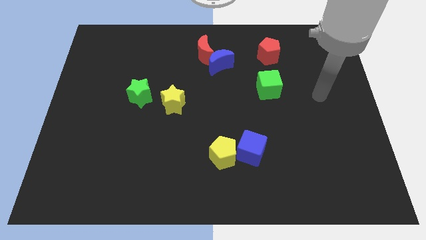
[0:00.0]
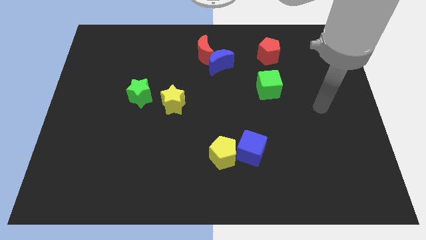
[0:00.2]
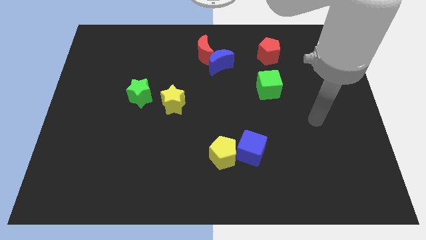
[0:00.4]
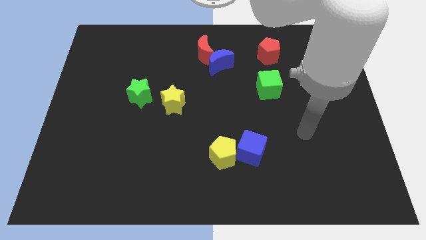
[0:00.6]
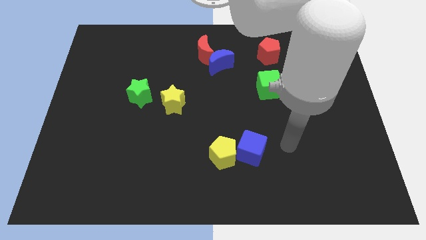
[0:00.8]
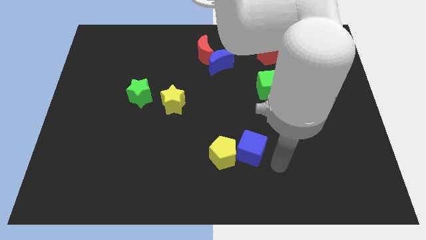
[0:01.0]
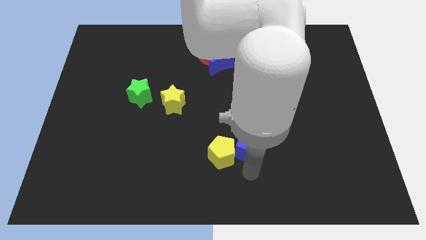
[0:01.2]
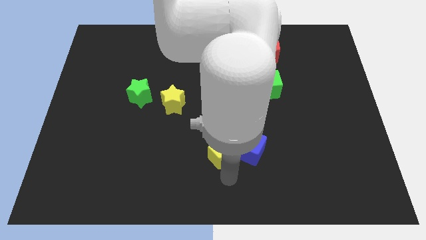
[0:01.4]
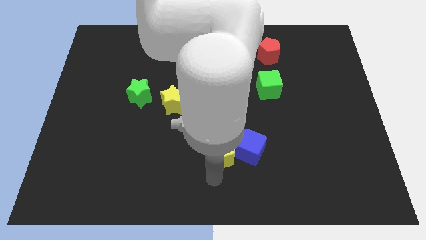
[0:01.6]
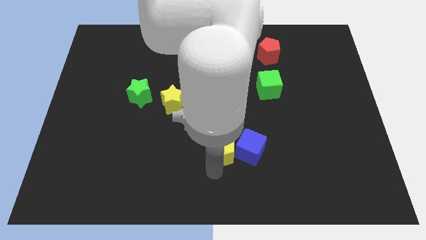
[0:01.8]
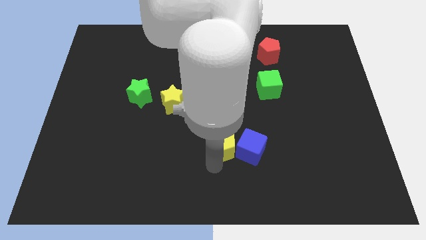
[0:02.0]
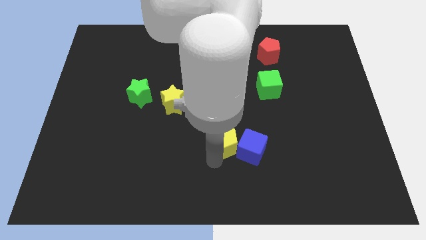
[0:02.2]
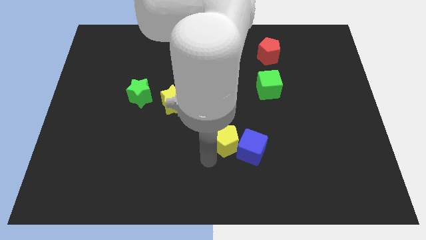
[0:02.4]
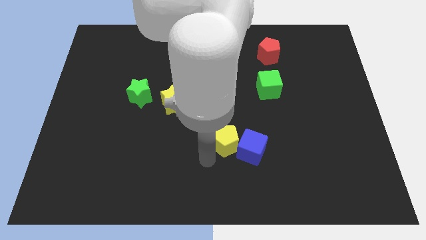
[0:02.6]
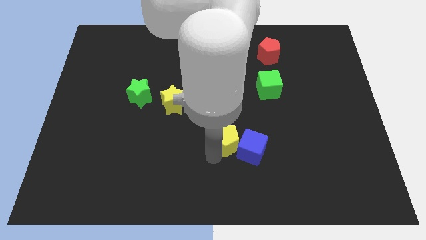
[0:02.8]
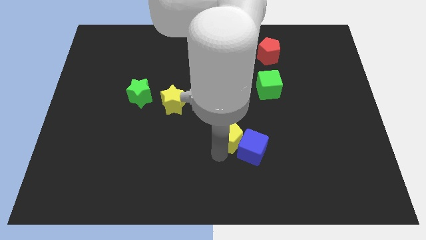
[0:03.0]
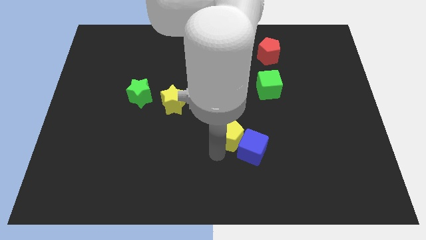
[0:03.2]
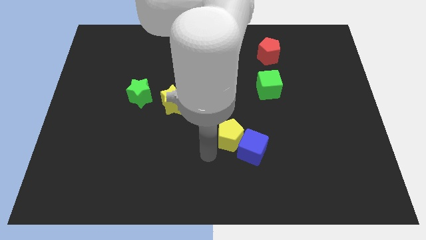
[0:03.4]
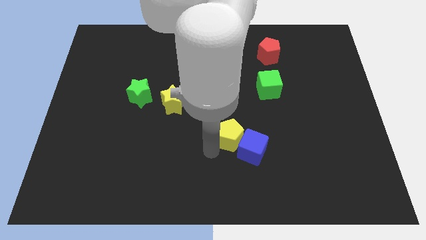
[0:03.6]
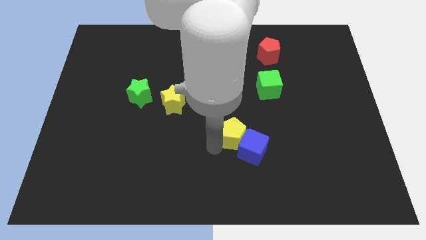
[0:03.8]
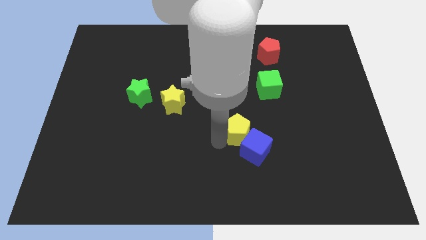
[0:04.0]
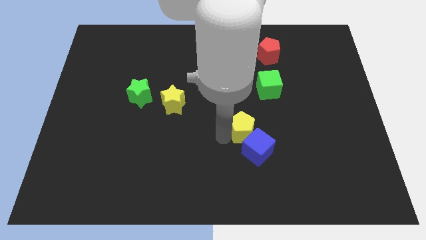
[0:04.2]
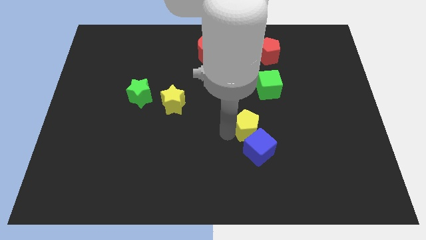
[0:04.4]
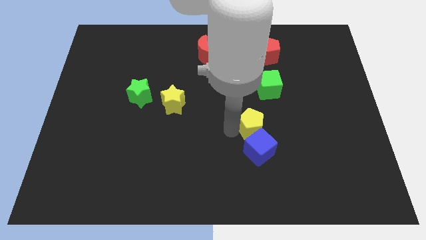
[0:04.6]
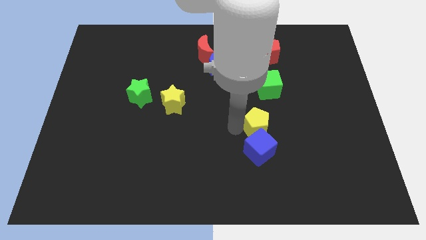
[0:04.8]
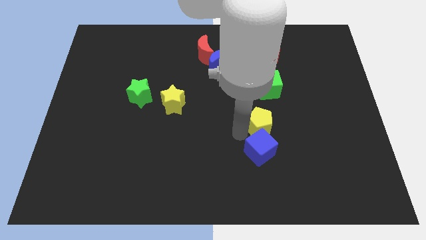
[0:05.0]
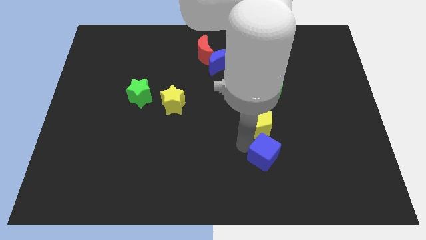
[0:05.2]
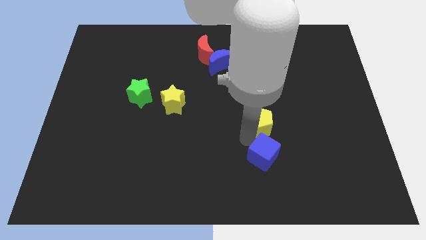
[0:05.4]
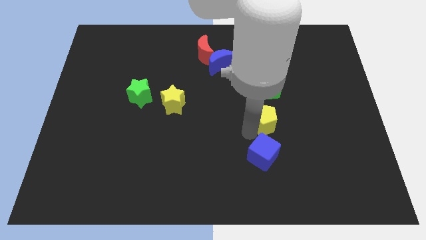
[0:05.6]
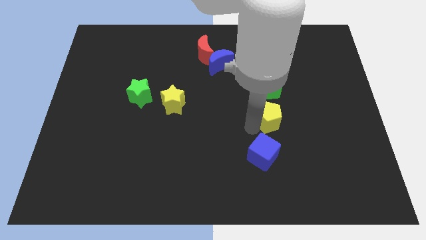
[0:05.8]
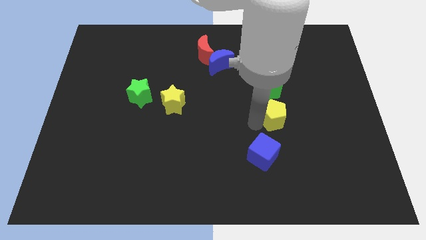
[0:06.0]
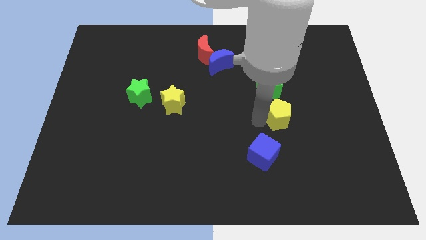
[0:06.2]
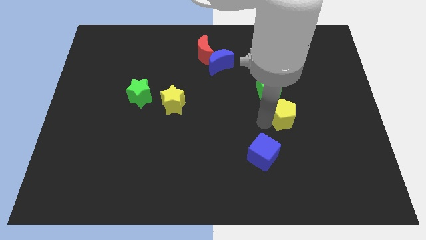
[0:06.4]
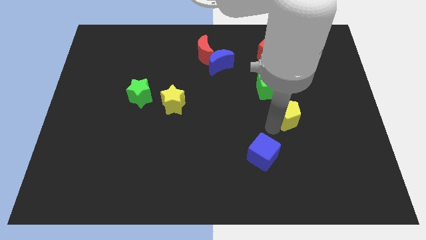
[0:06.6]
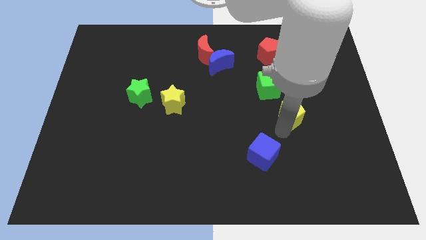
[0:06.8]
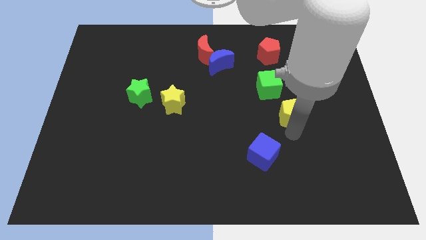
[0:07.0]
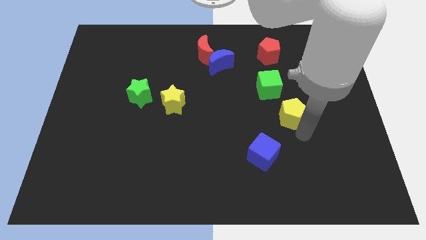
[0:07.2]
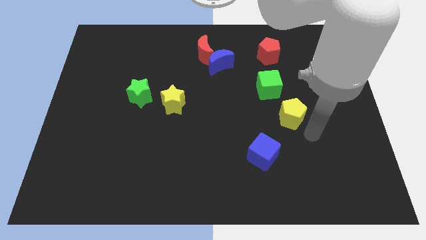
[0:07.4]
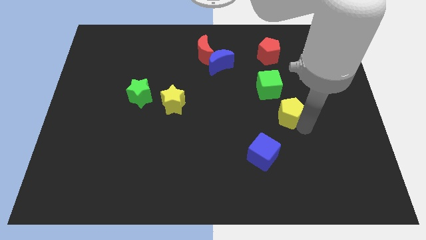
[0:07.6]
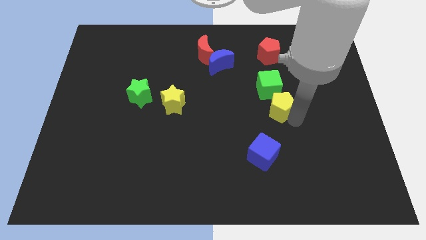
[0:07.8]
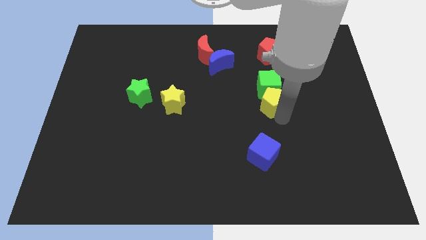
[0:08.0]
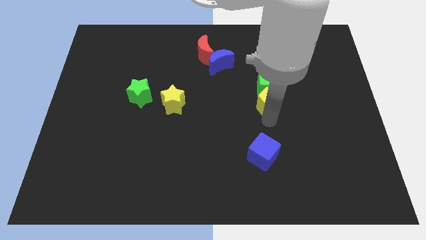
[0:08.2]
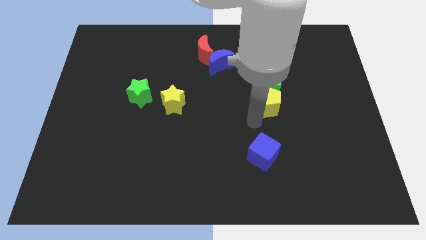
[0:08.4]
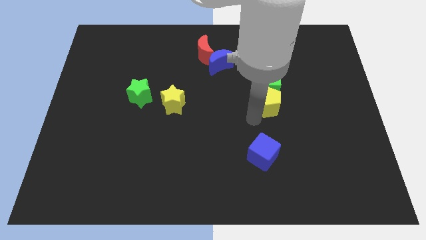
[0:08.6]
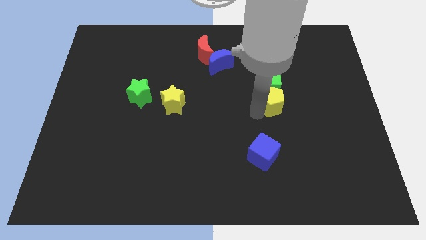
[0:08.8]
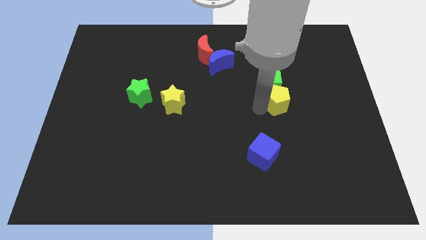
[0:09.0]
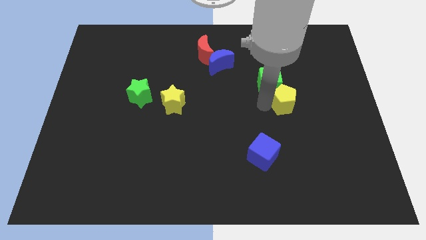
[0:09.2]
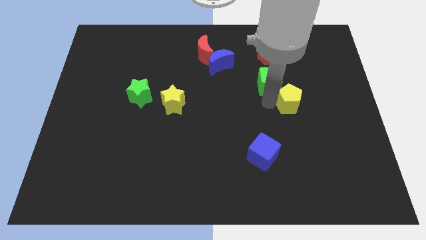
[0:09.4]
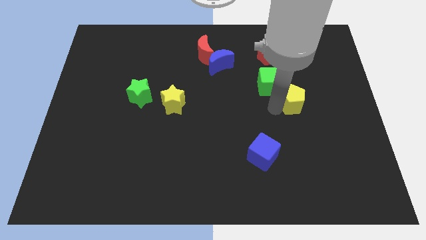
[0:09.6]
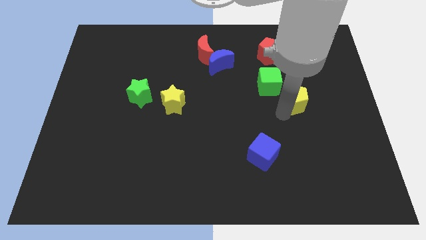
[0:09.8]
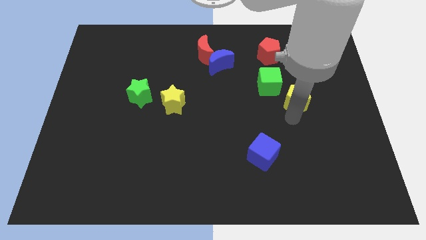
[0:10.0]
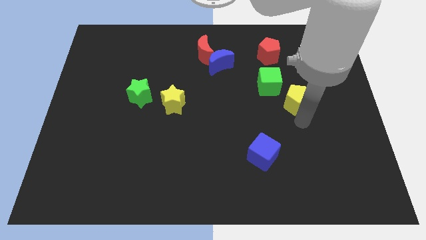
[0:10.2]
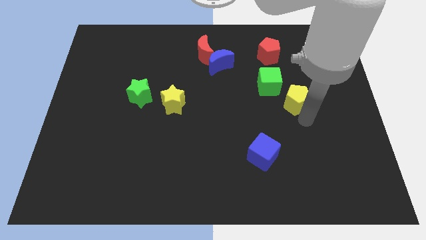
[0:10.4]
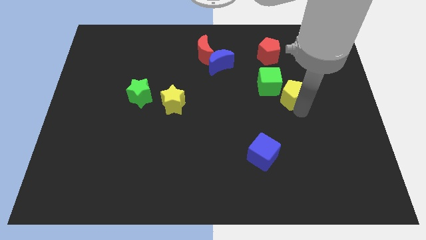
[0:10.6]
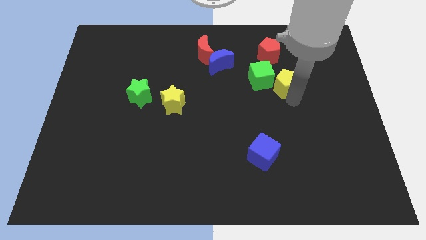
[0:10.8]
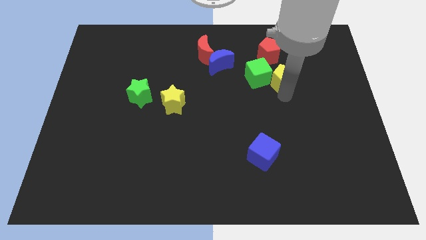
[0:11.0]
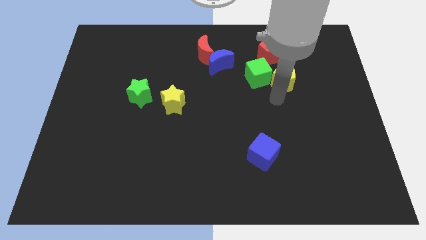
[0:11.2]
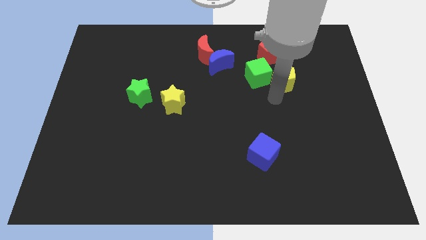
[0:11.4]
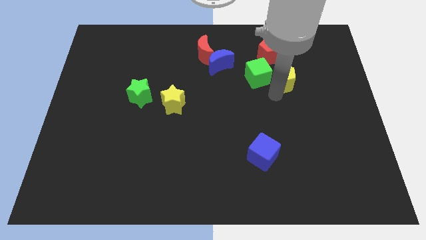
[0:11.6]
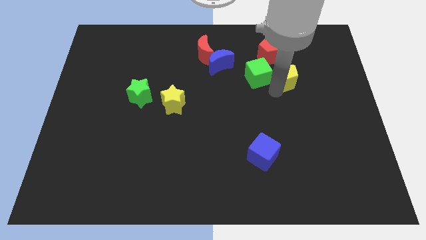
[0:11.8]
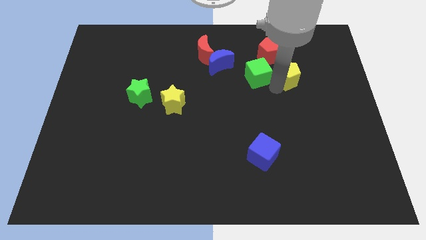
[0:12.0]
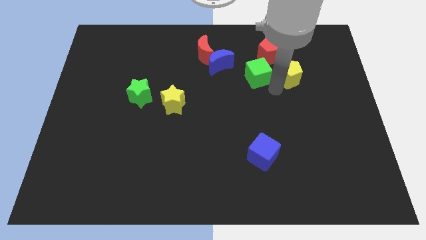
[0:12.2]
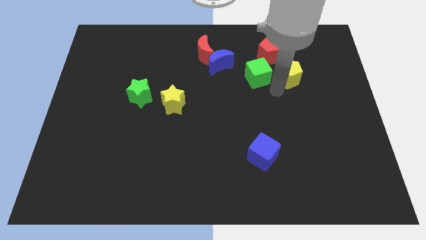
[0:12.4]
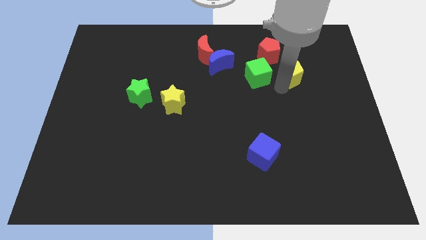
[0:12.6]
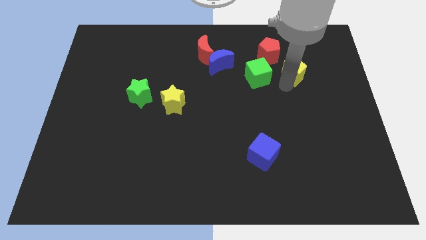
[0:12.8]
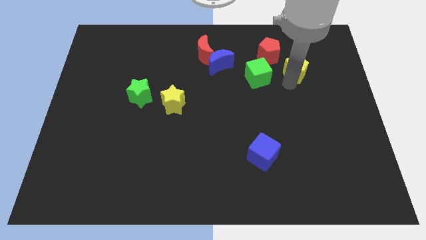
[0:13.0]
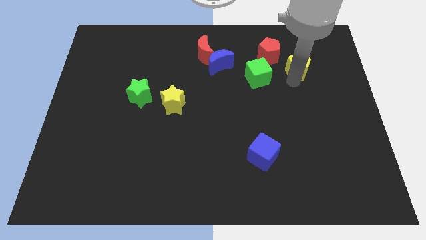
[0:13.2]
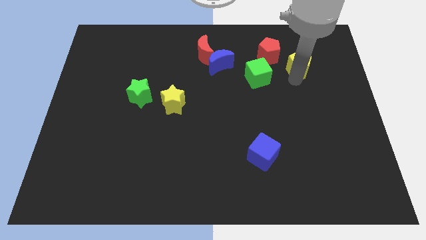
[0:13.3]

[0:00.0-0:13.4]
slide the yellow pentagon right of the red pentagon
